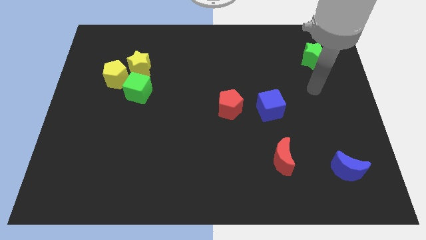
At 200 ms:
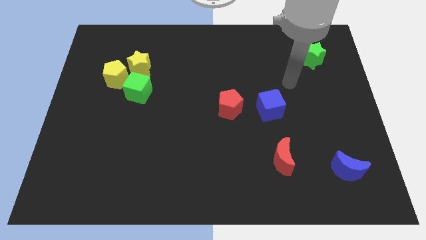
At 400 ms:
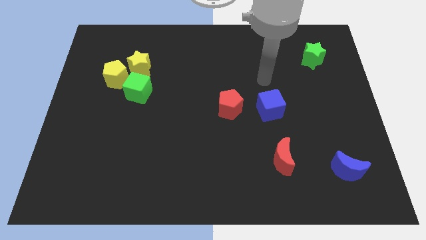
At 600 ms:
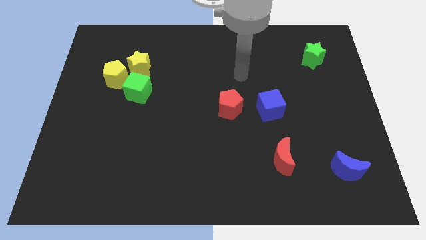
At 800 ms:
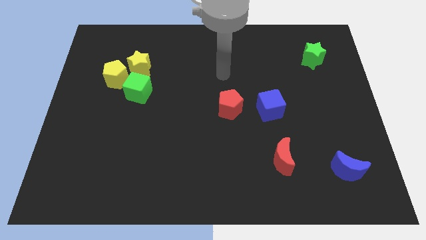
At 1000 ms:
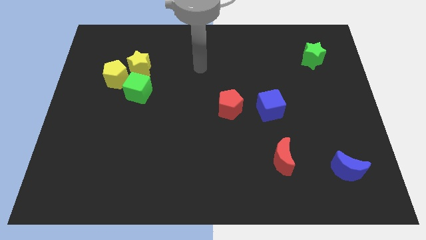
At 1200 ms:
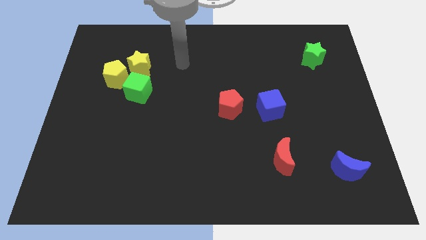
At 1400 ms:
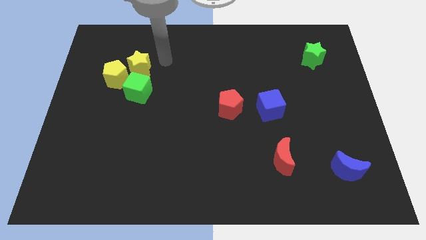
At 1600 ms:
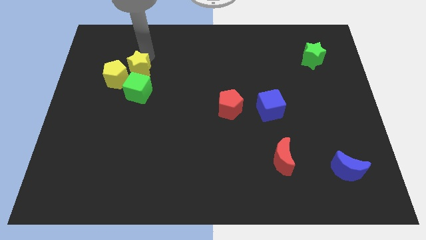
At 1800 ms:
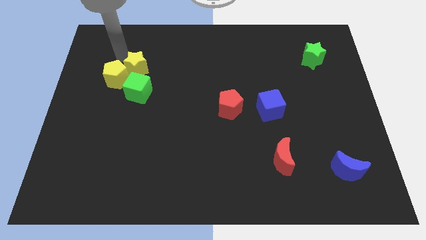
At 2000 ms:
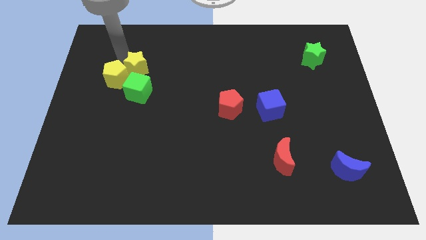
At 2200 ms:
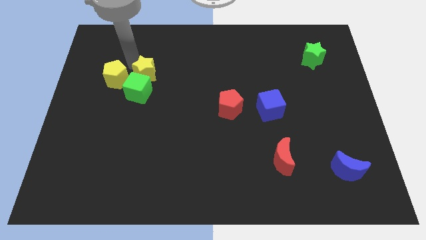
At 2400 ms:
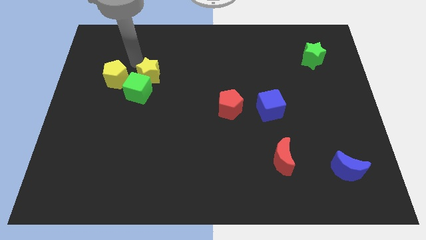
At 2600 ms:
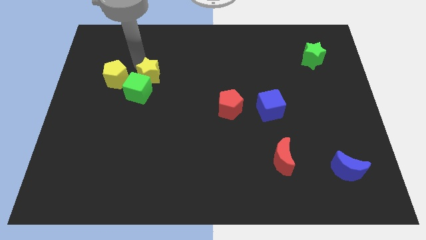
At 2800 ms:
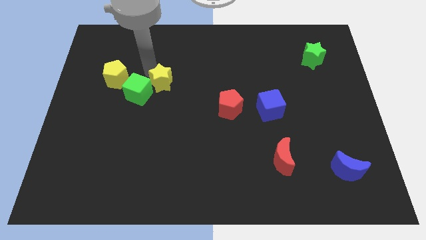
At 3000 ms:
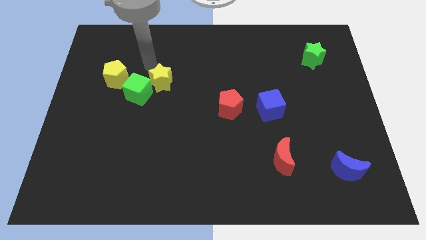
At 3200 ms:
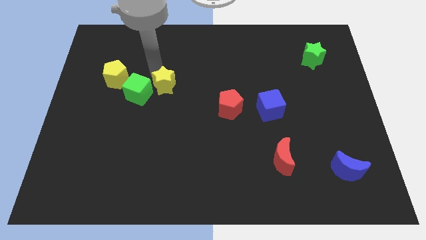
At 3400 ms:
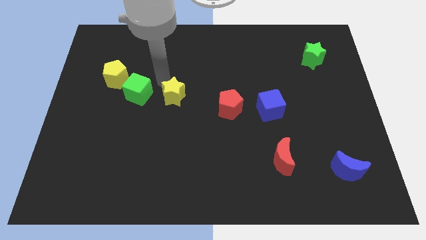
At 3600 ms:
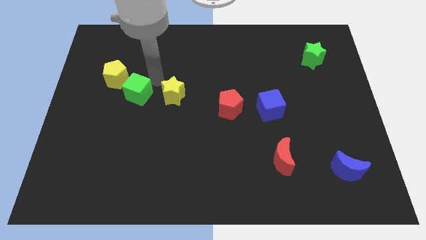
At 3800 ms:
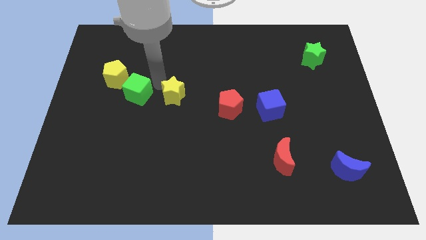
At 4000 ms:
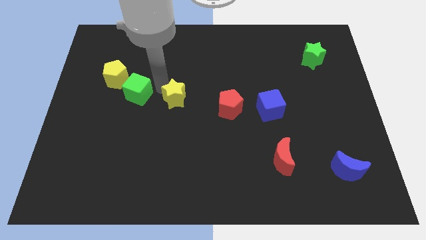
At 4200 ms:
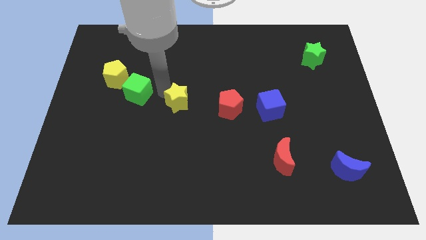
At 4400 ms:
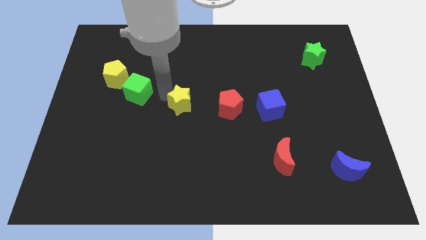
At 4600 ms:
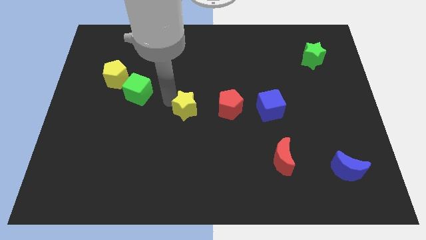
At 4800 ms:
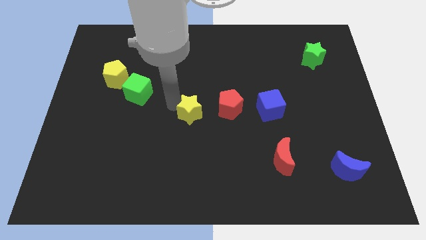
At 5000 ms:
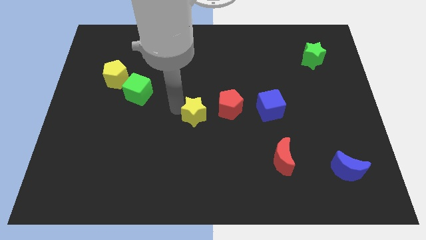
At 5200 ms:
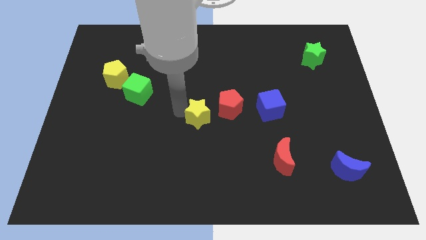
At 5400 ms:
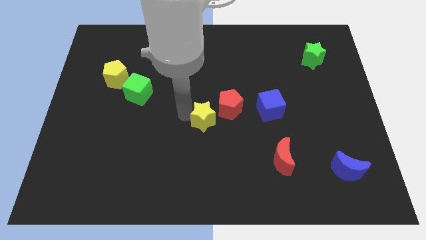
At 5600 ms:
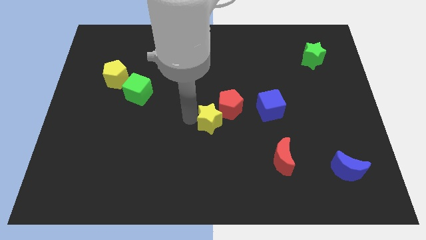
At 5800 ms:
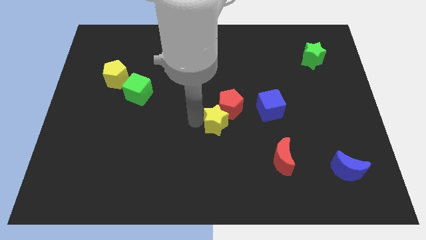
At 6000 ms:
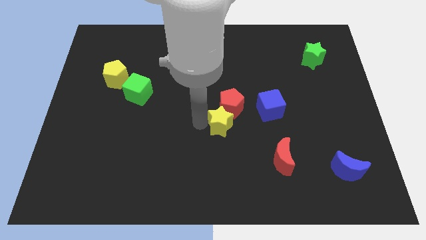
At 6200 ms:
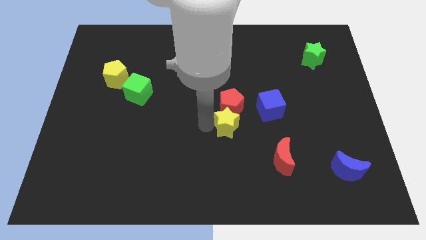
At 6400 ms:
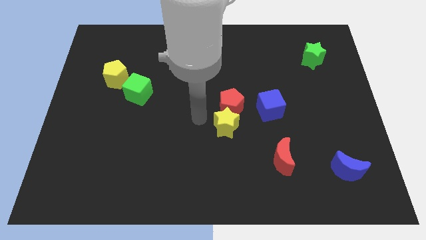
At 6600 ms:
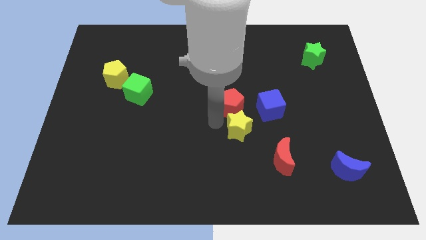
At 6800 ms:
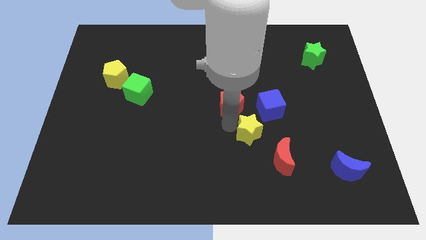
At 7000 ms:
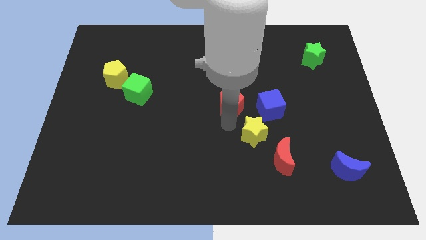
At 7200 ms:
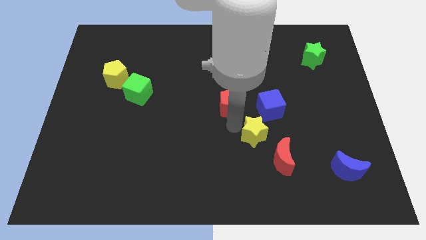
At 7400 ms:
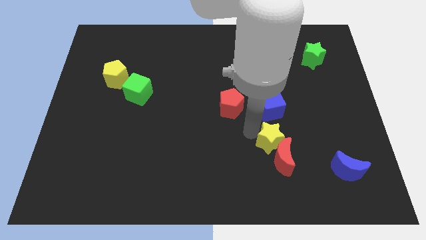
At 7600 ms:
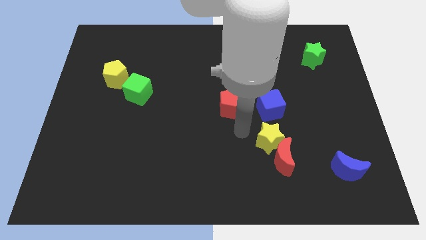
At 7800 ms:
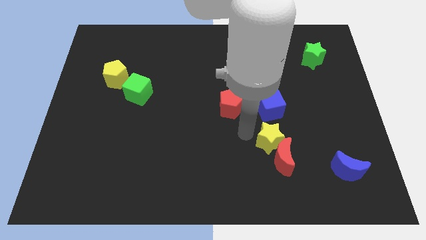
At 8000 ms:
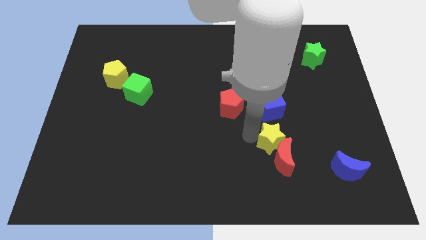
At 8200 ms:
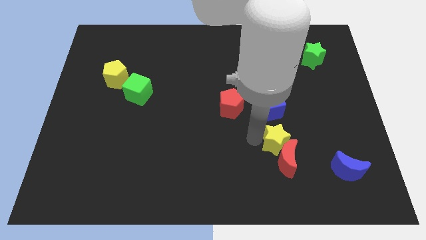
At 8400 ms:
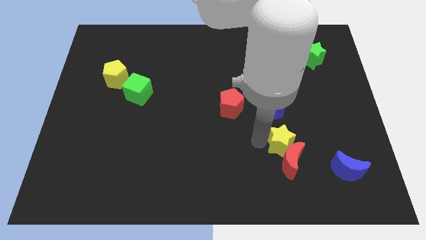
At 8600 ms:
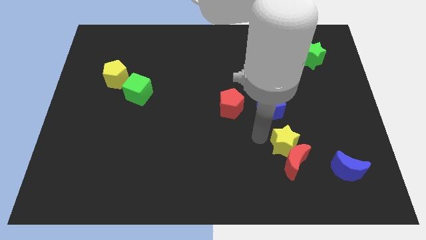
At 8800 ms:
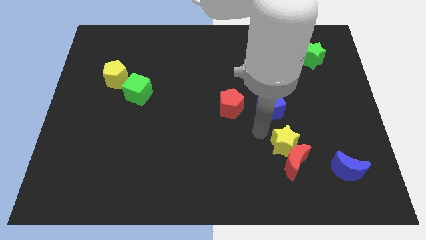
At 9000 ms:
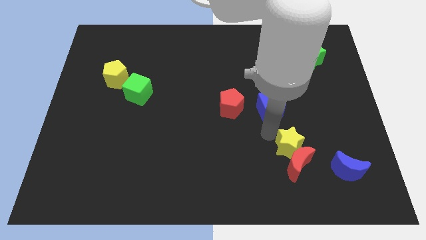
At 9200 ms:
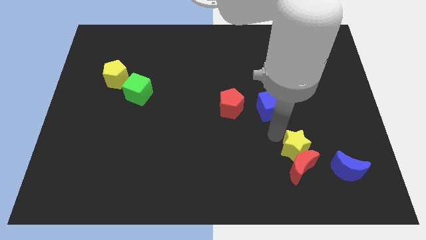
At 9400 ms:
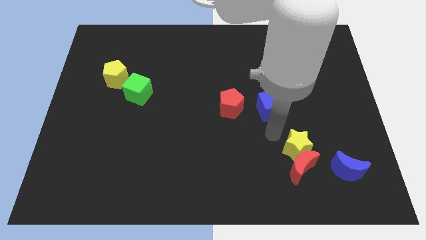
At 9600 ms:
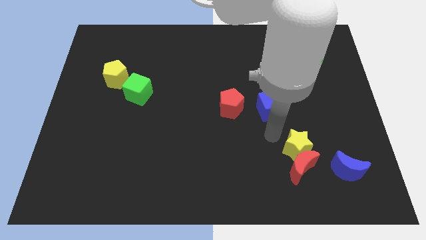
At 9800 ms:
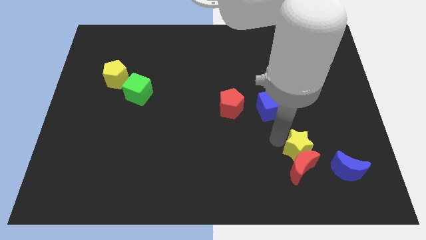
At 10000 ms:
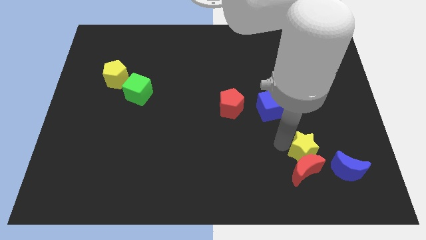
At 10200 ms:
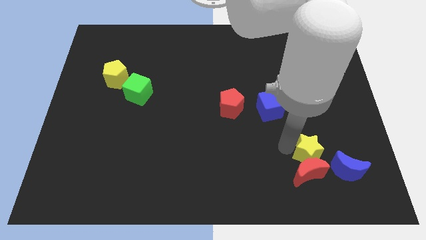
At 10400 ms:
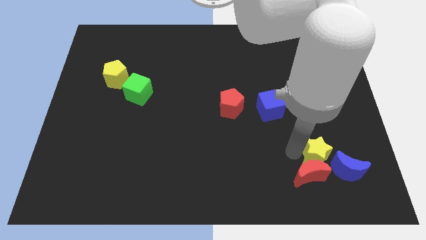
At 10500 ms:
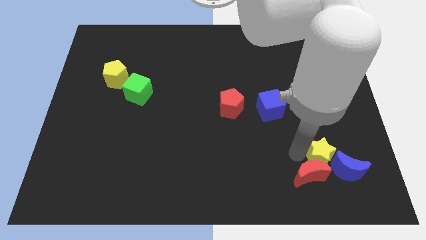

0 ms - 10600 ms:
slide the yellow star close to the blue moon

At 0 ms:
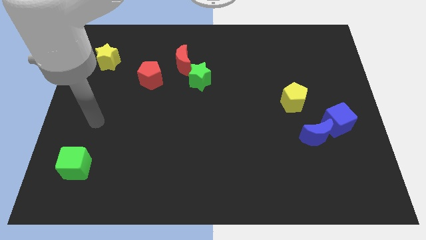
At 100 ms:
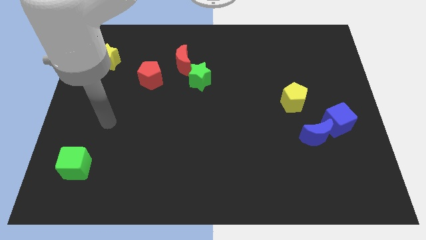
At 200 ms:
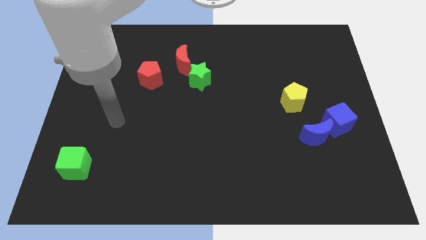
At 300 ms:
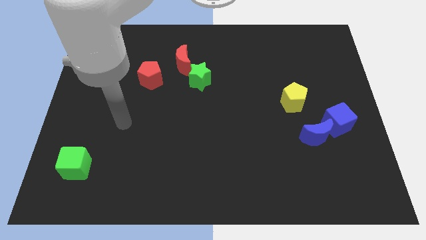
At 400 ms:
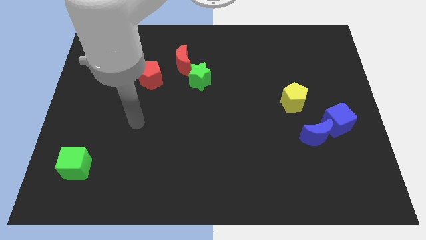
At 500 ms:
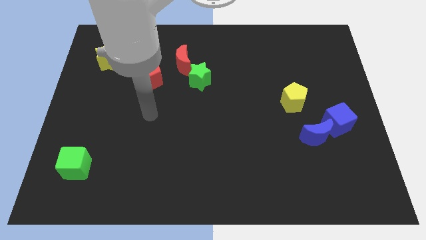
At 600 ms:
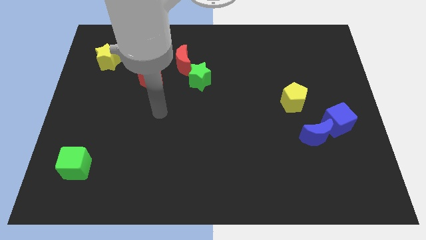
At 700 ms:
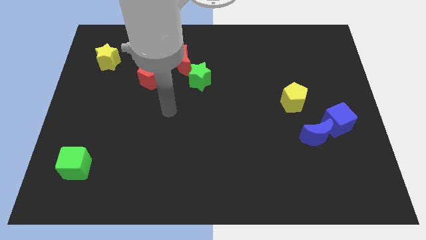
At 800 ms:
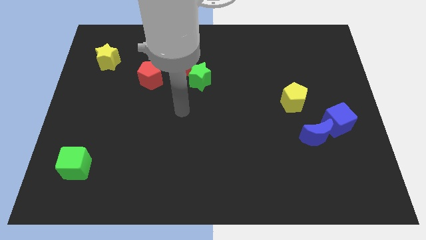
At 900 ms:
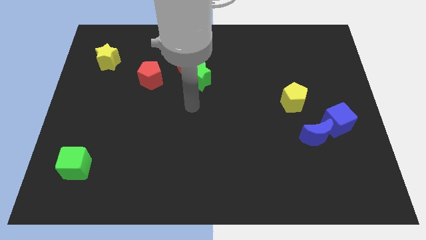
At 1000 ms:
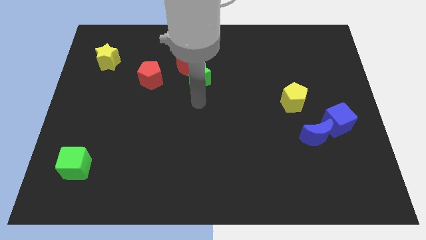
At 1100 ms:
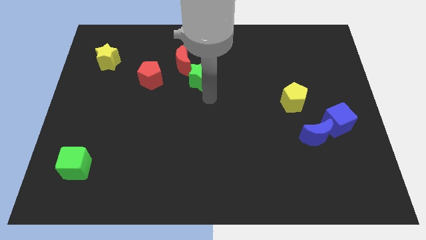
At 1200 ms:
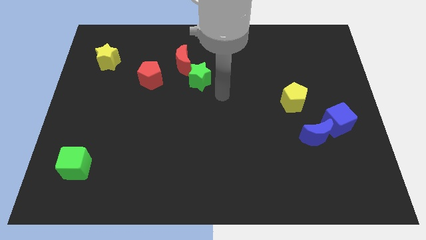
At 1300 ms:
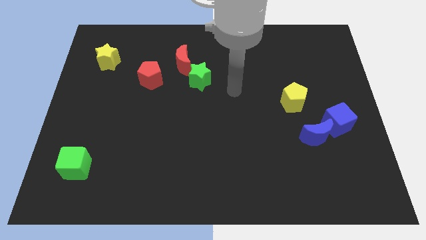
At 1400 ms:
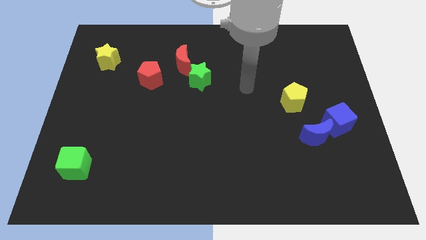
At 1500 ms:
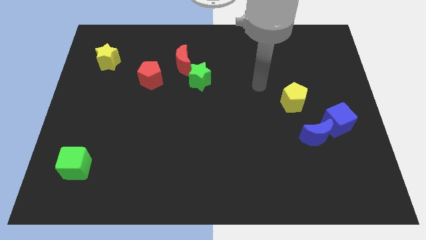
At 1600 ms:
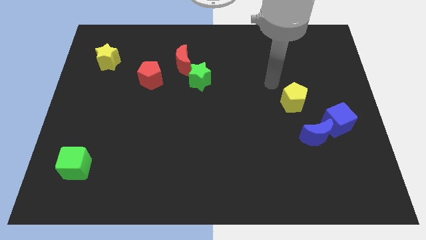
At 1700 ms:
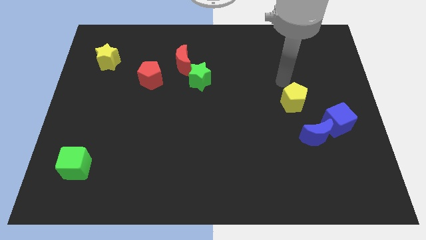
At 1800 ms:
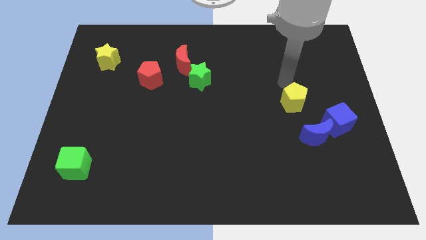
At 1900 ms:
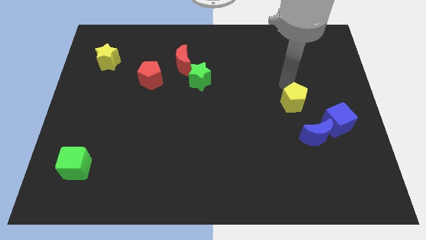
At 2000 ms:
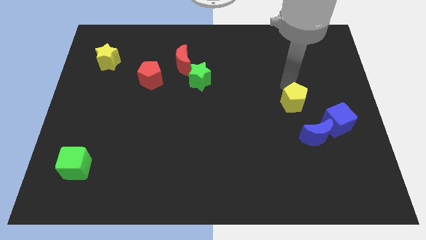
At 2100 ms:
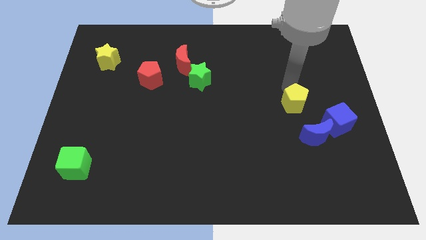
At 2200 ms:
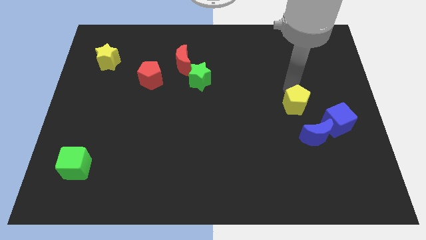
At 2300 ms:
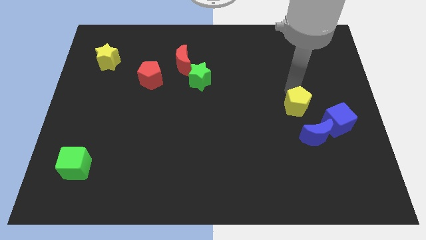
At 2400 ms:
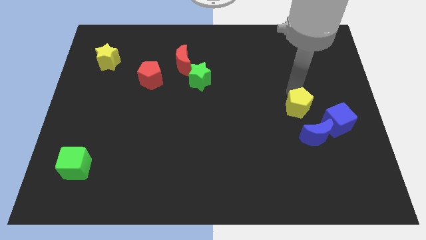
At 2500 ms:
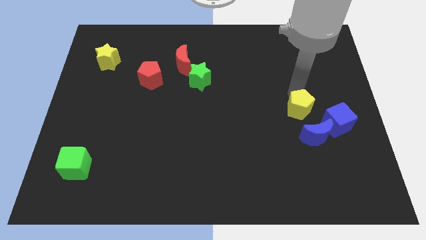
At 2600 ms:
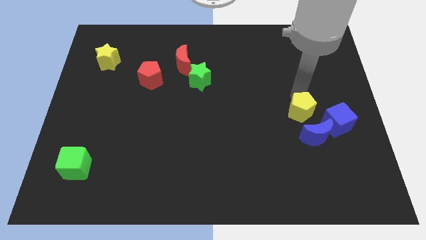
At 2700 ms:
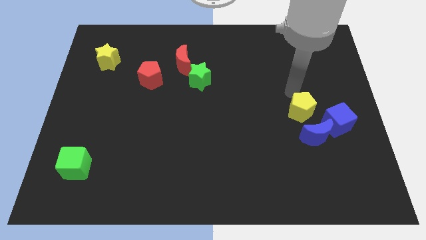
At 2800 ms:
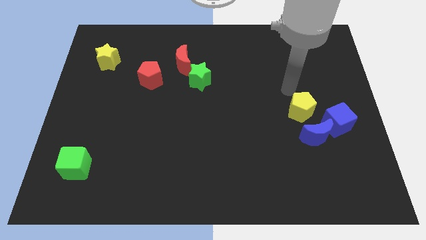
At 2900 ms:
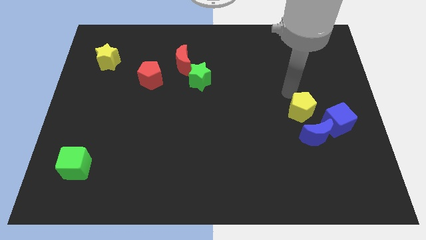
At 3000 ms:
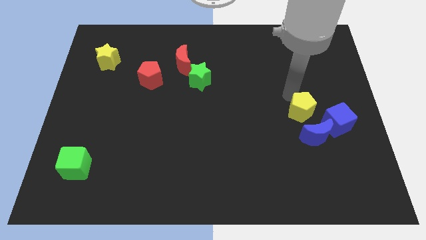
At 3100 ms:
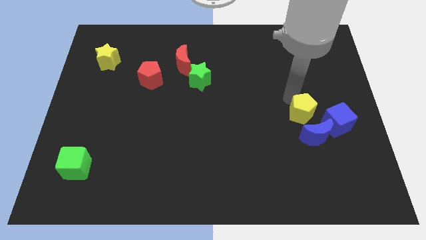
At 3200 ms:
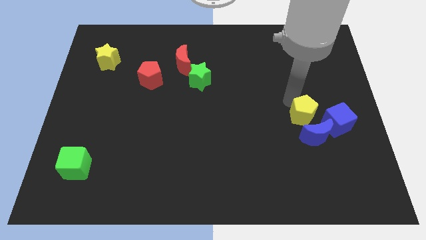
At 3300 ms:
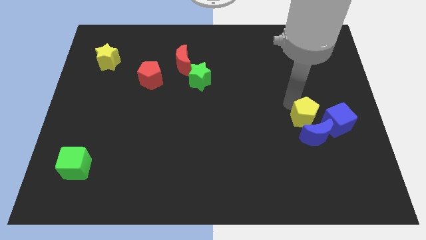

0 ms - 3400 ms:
slide the yellow pentagon close to the blue moon
